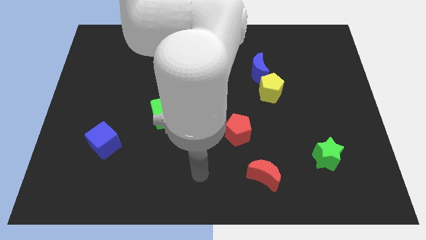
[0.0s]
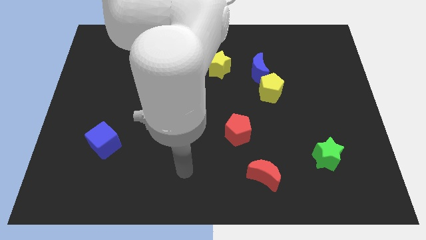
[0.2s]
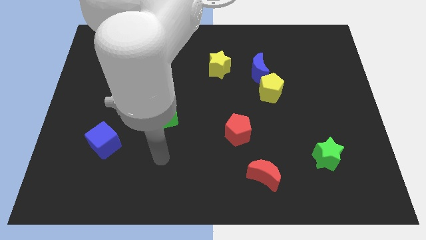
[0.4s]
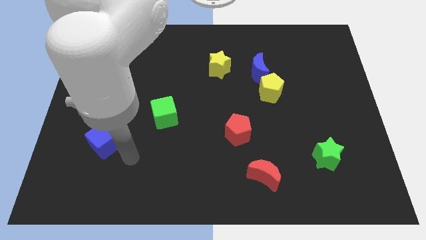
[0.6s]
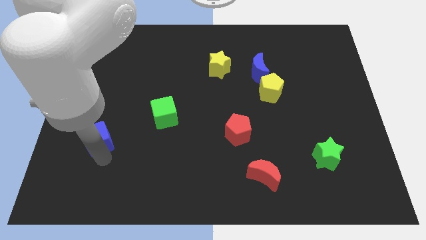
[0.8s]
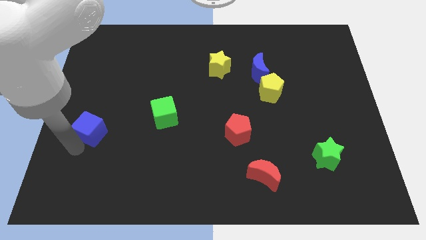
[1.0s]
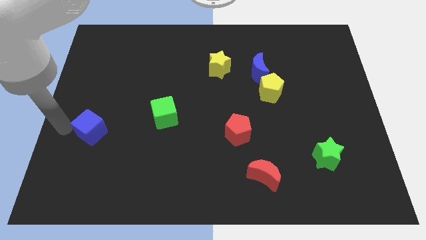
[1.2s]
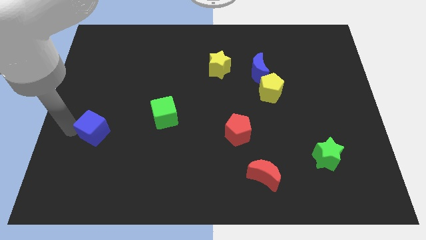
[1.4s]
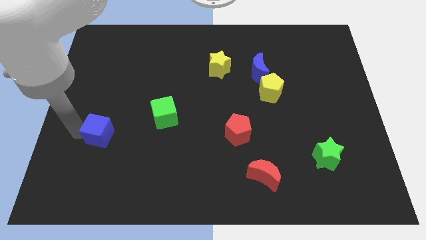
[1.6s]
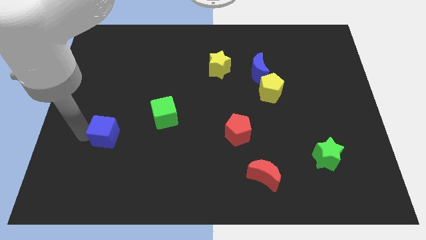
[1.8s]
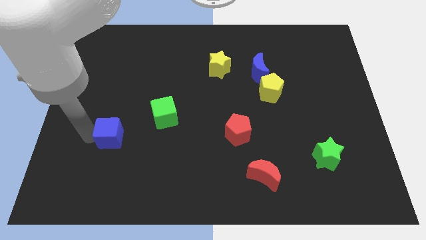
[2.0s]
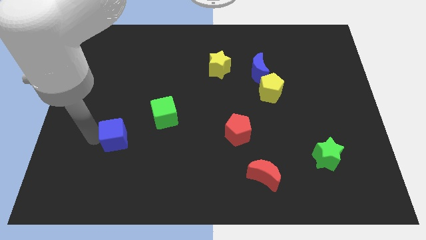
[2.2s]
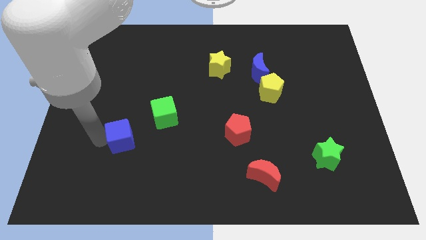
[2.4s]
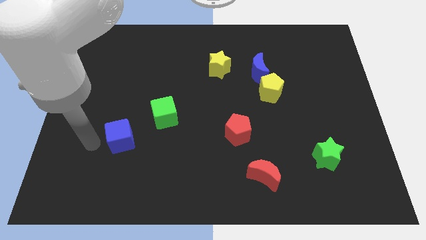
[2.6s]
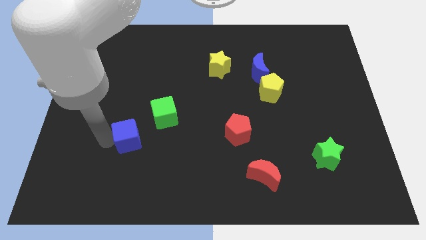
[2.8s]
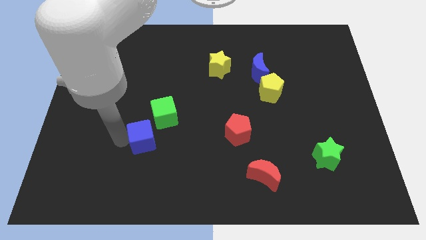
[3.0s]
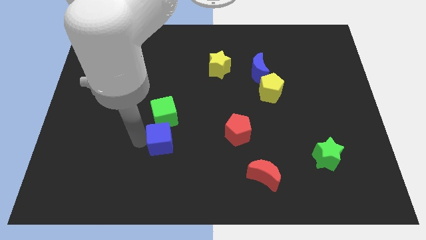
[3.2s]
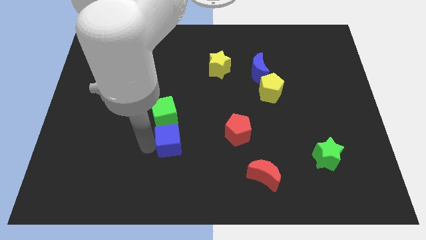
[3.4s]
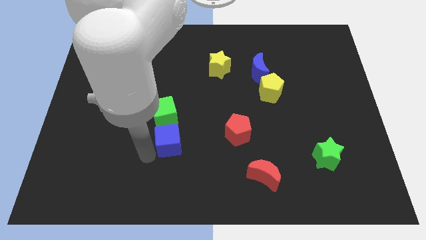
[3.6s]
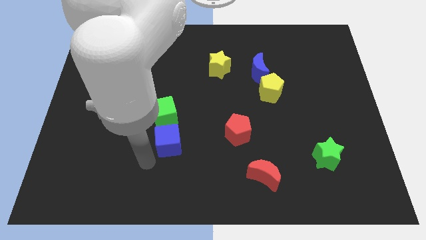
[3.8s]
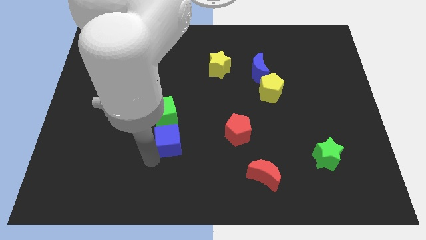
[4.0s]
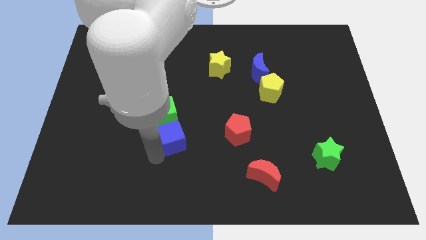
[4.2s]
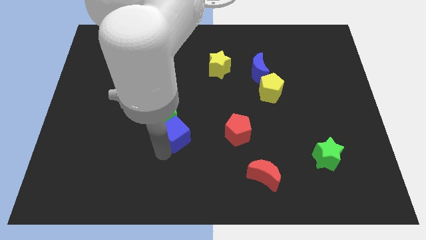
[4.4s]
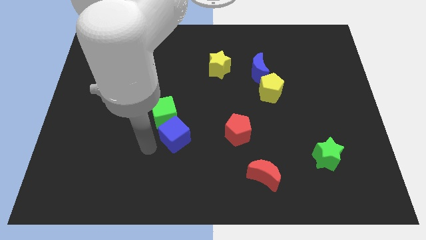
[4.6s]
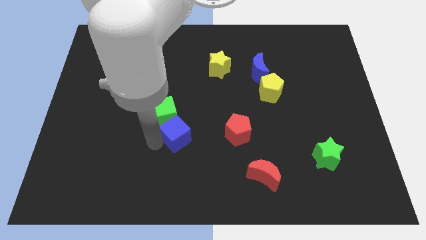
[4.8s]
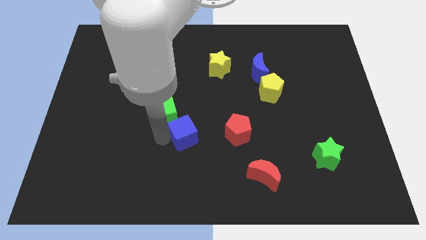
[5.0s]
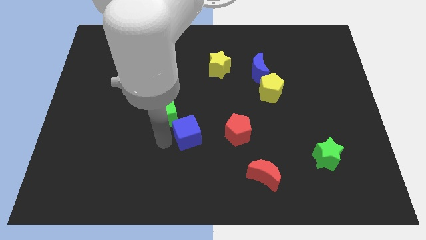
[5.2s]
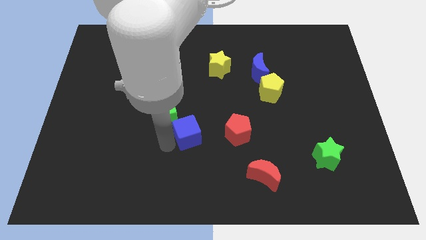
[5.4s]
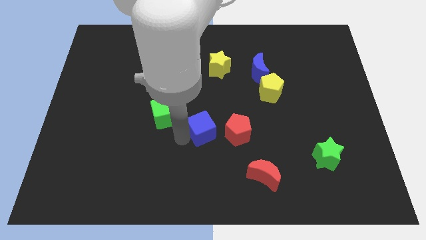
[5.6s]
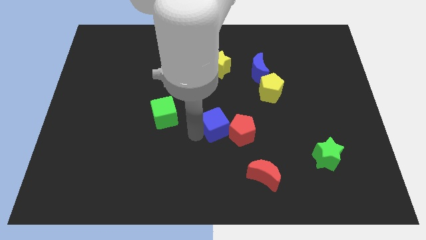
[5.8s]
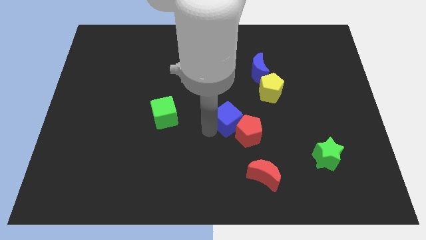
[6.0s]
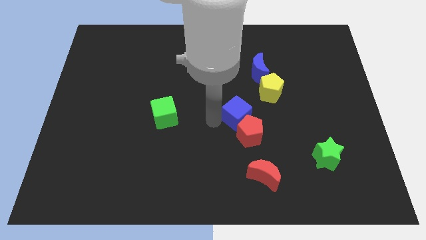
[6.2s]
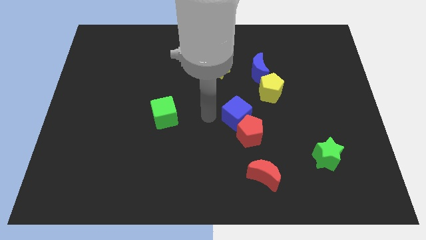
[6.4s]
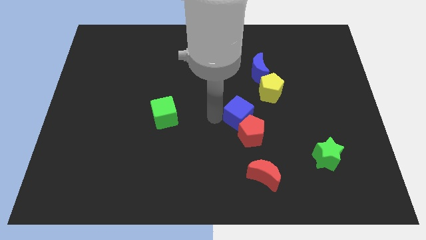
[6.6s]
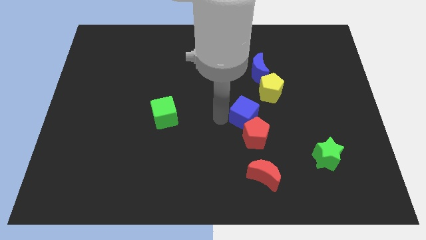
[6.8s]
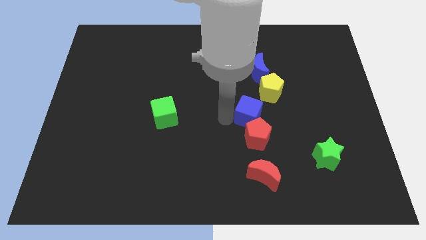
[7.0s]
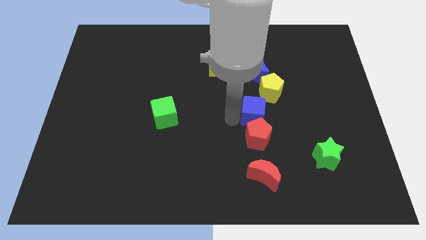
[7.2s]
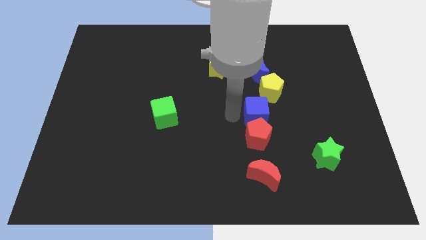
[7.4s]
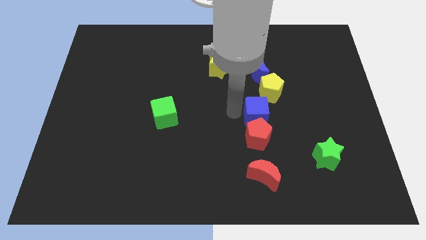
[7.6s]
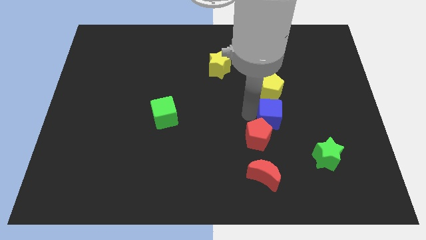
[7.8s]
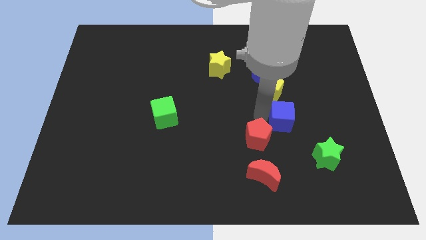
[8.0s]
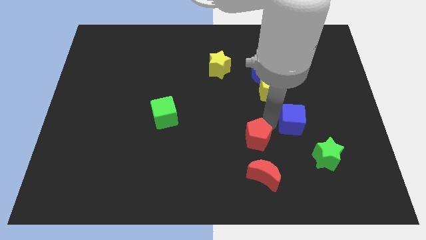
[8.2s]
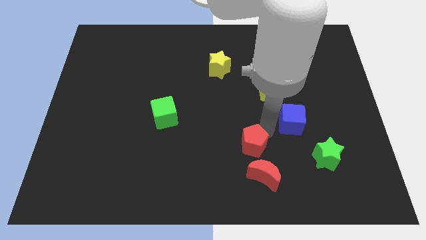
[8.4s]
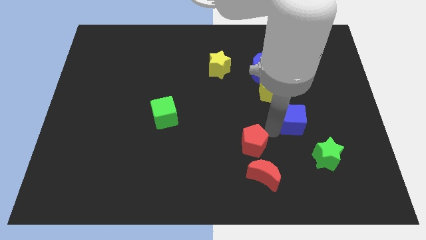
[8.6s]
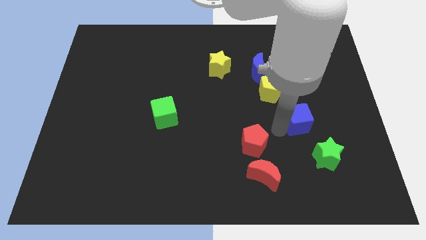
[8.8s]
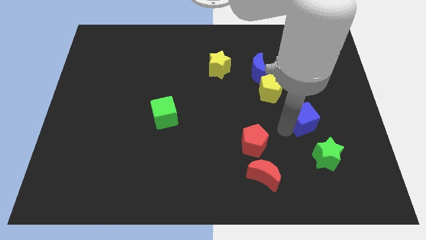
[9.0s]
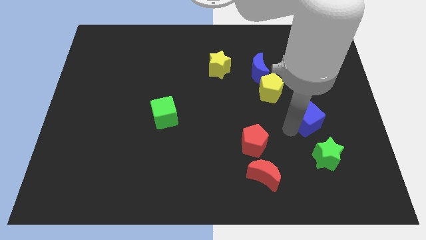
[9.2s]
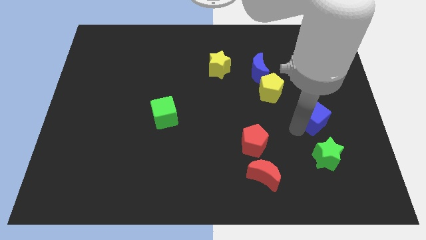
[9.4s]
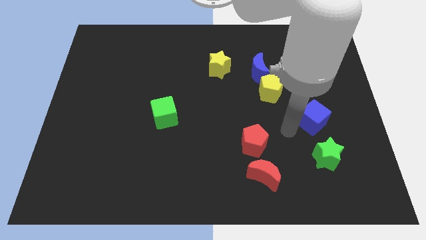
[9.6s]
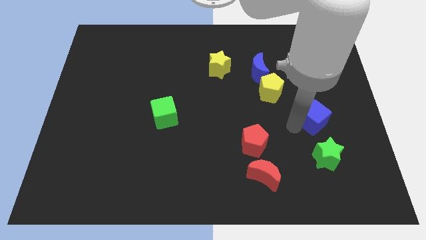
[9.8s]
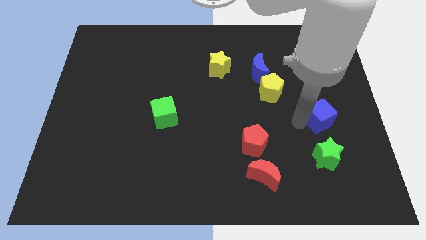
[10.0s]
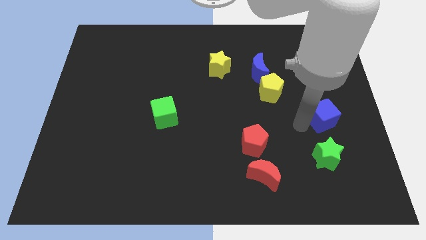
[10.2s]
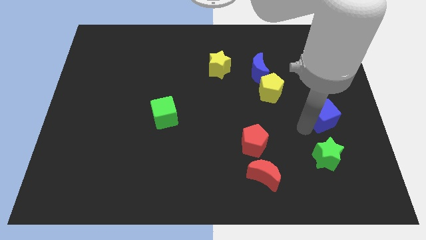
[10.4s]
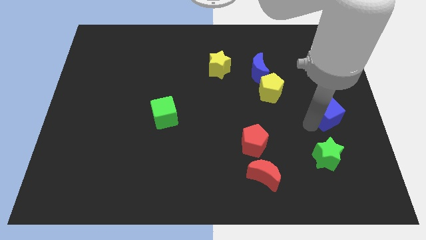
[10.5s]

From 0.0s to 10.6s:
move the blue cube to the right side

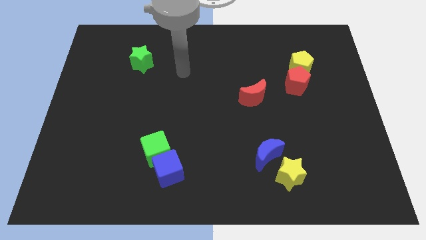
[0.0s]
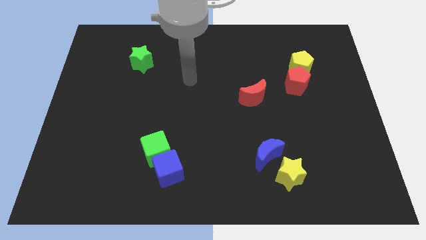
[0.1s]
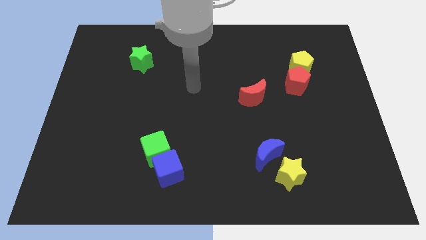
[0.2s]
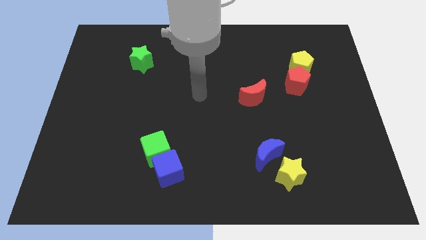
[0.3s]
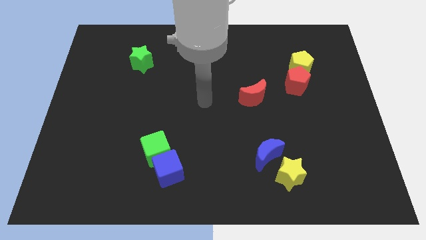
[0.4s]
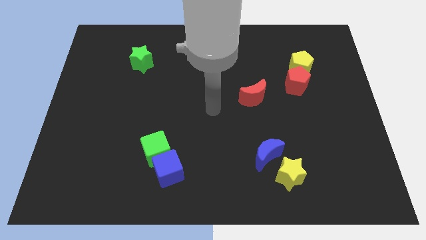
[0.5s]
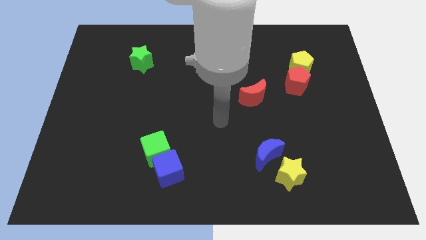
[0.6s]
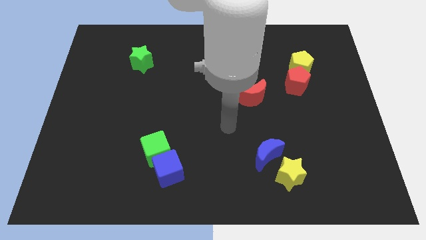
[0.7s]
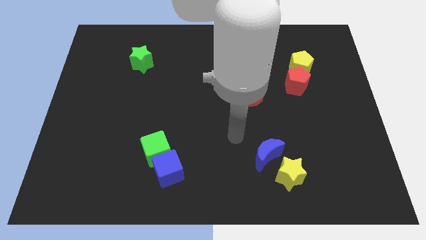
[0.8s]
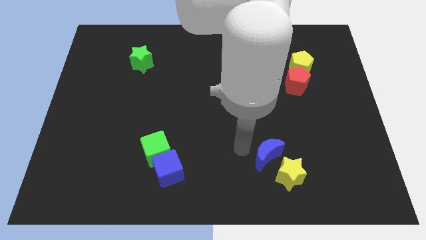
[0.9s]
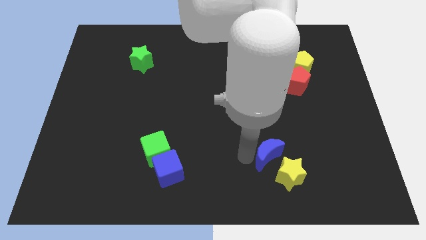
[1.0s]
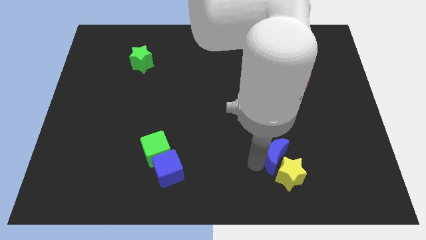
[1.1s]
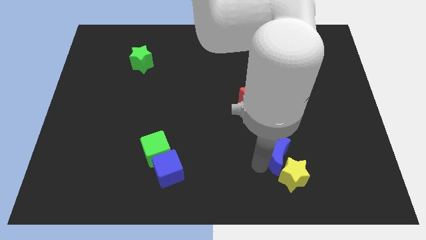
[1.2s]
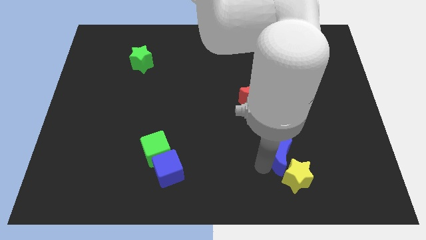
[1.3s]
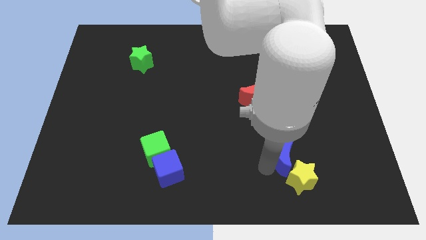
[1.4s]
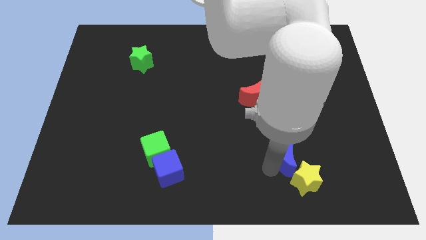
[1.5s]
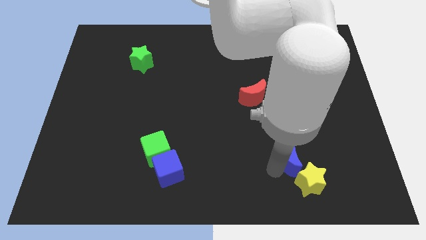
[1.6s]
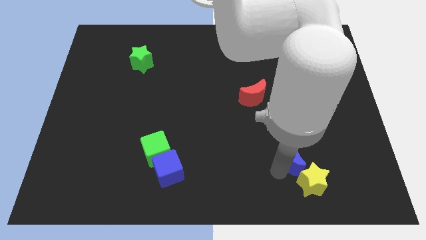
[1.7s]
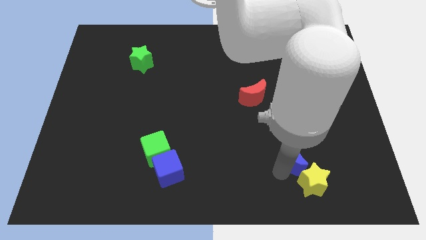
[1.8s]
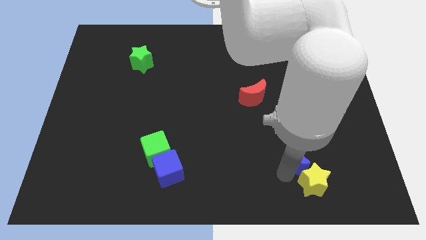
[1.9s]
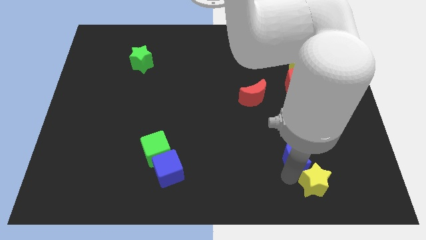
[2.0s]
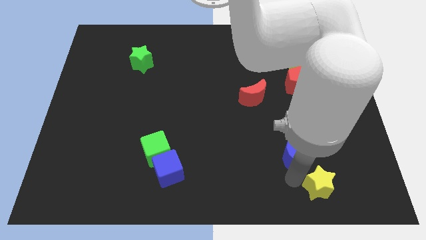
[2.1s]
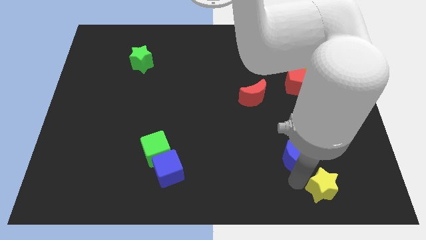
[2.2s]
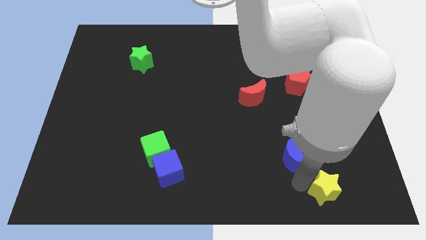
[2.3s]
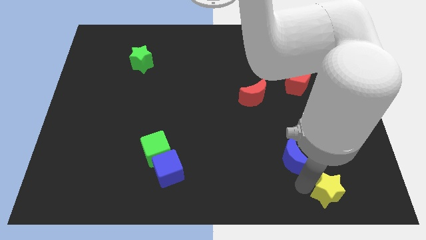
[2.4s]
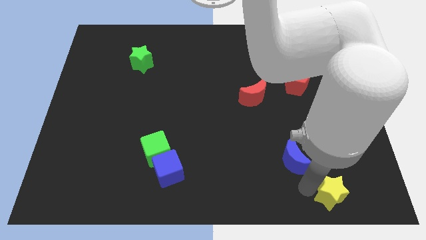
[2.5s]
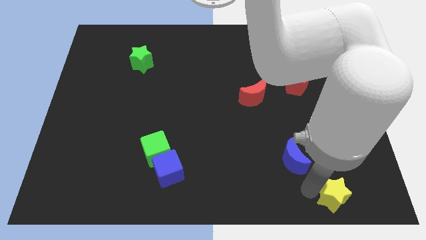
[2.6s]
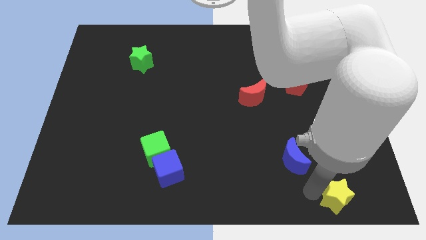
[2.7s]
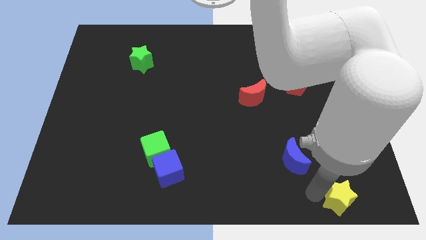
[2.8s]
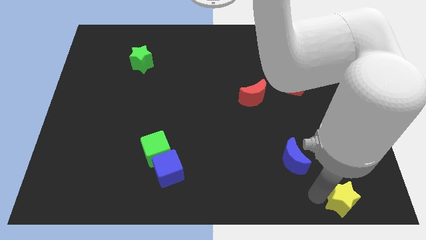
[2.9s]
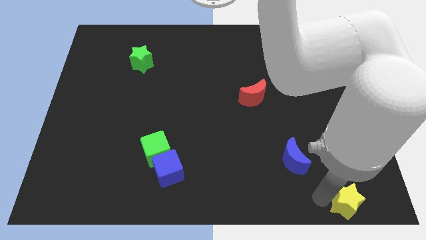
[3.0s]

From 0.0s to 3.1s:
move the yellow star to the bottom right of the board
